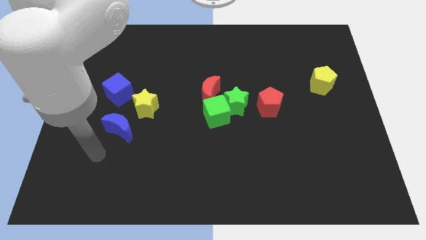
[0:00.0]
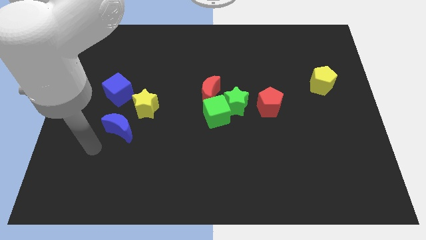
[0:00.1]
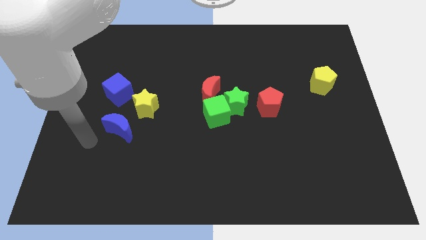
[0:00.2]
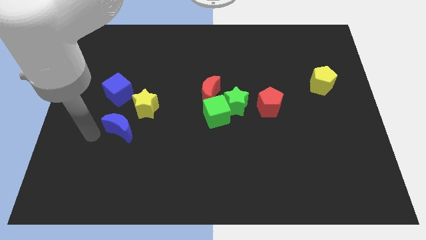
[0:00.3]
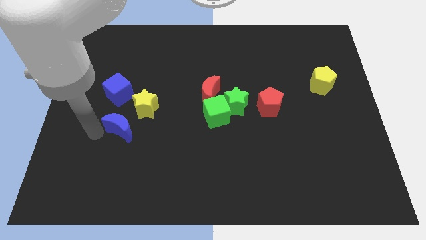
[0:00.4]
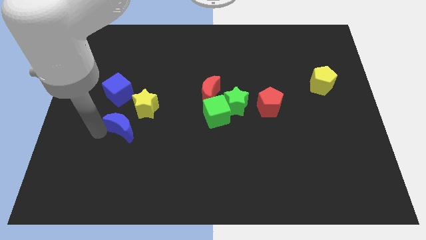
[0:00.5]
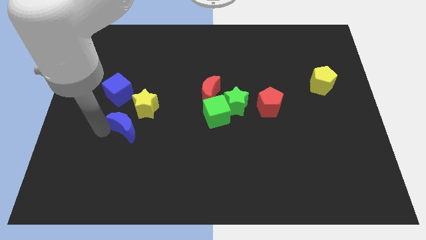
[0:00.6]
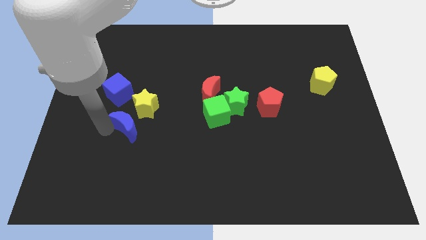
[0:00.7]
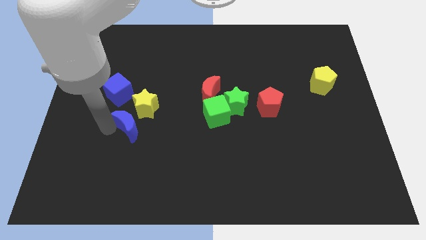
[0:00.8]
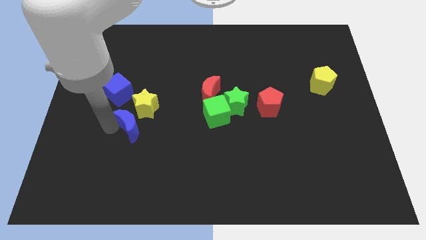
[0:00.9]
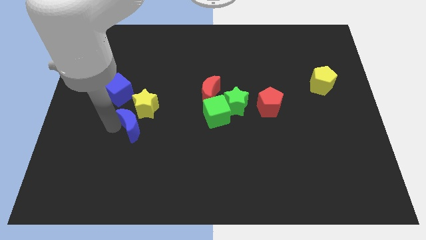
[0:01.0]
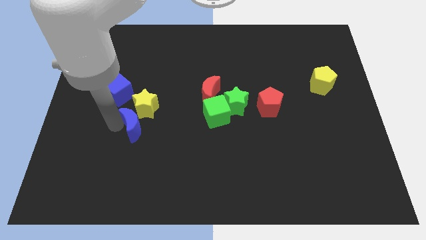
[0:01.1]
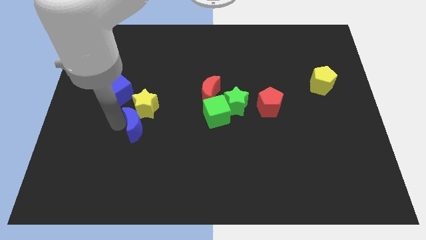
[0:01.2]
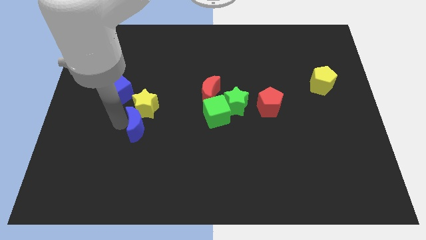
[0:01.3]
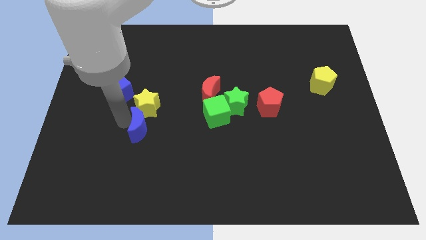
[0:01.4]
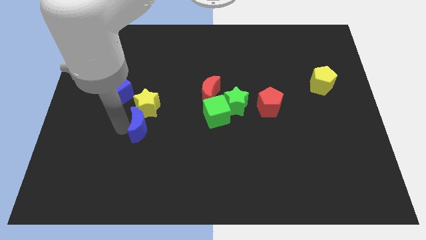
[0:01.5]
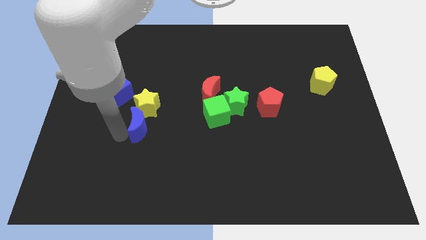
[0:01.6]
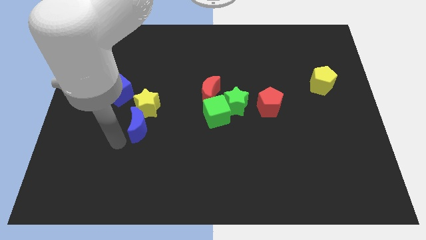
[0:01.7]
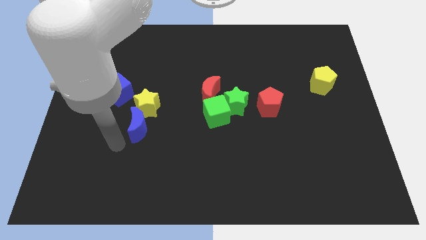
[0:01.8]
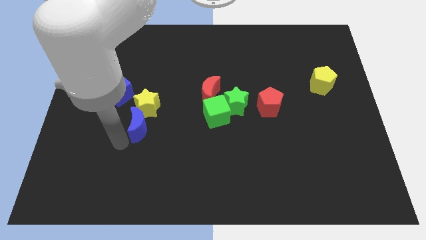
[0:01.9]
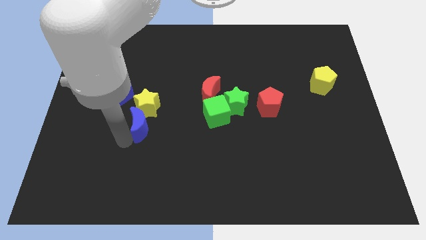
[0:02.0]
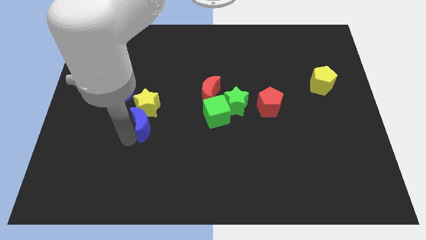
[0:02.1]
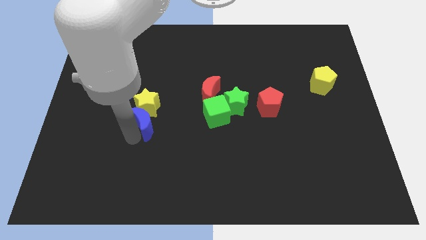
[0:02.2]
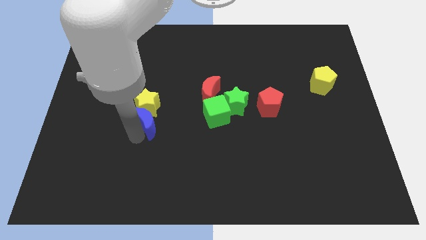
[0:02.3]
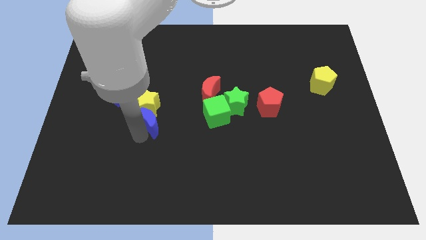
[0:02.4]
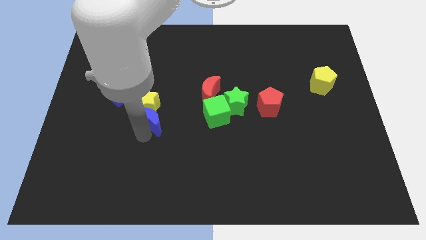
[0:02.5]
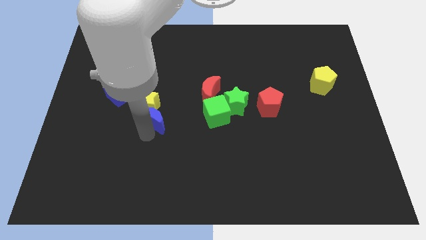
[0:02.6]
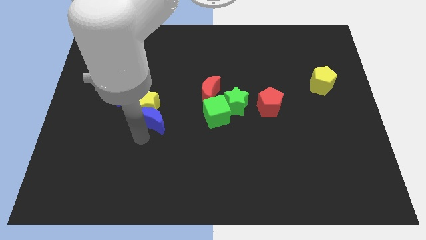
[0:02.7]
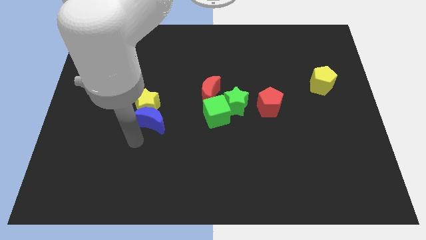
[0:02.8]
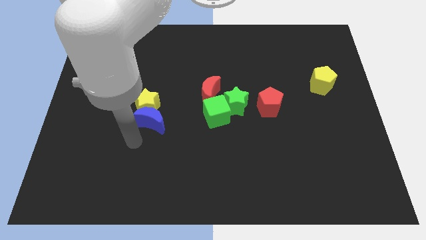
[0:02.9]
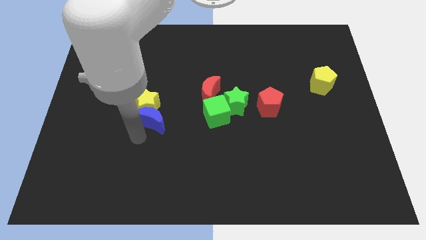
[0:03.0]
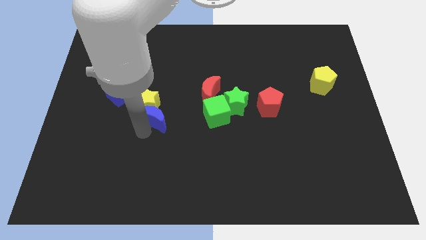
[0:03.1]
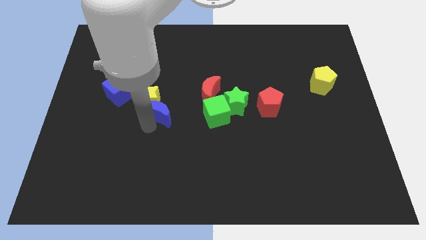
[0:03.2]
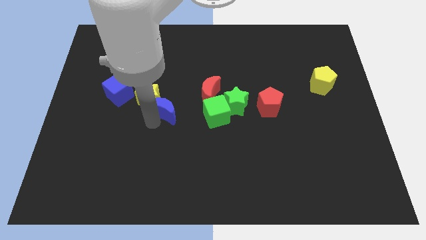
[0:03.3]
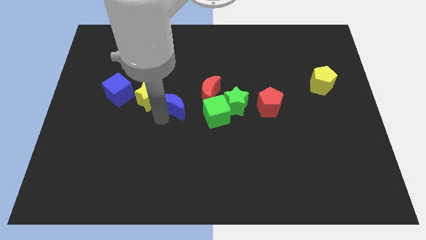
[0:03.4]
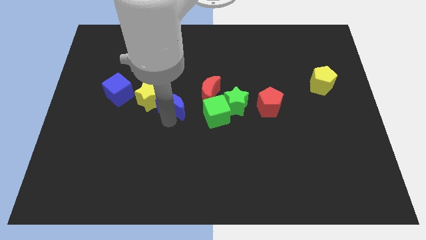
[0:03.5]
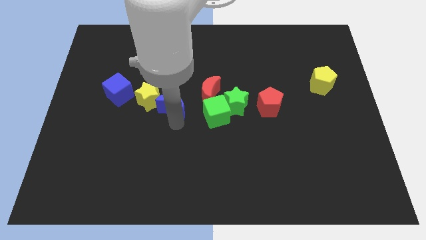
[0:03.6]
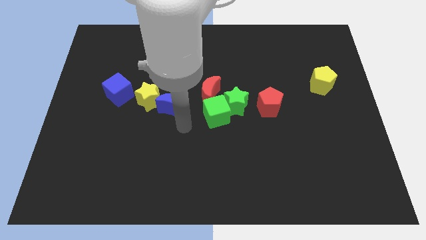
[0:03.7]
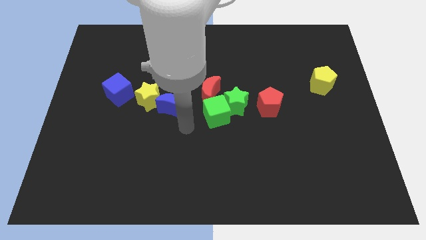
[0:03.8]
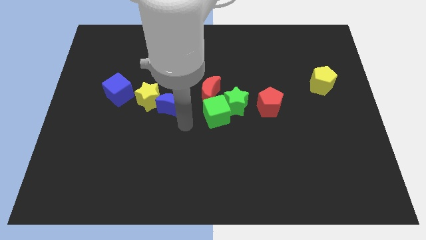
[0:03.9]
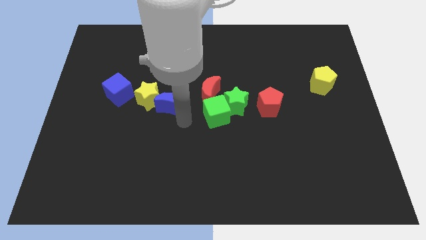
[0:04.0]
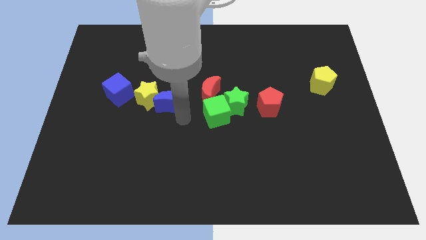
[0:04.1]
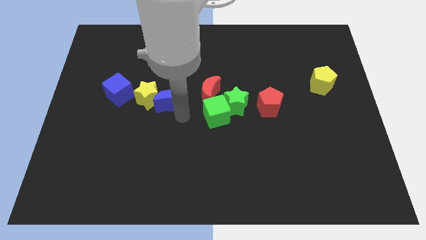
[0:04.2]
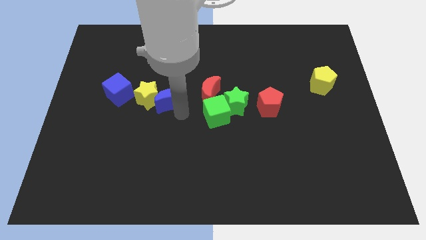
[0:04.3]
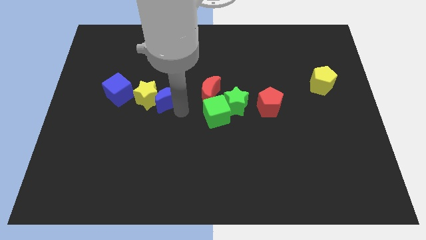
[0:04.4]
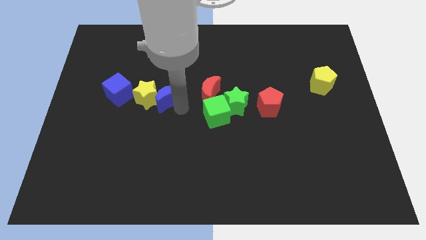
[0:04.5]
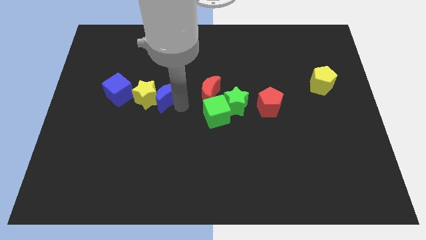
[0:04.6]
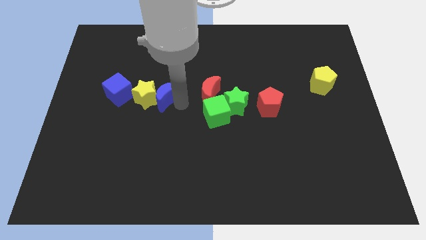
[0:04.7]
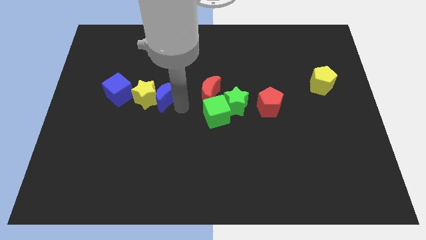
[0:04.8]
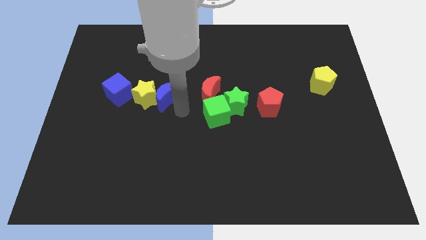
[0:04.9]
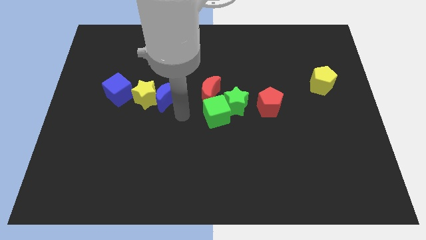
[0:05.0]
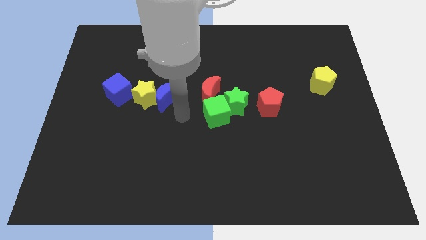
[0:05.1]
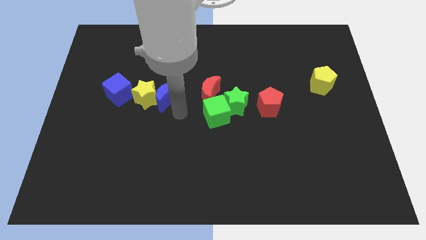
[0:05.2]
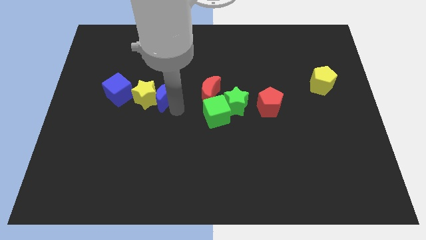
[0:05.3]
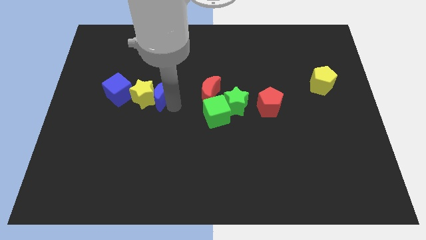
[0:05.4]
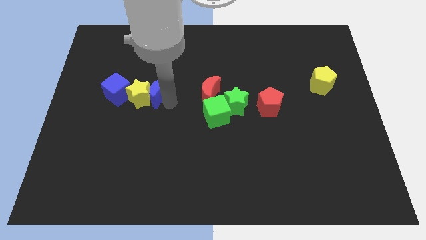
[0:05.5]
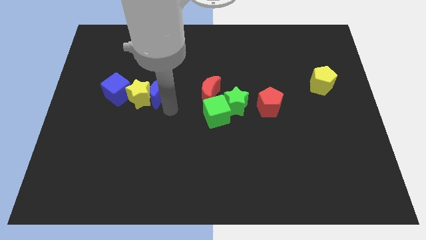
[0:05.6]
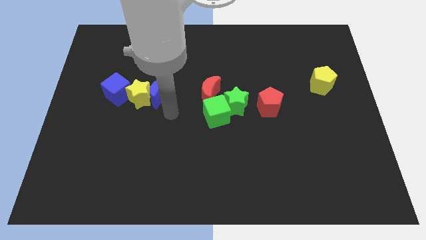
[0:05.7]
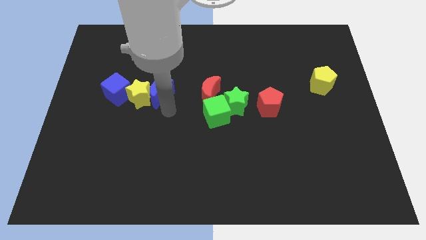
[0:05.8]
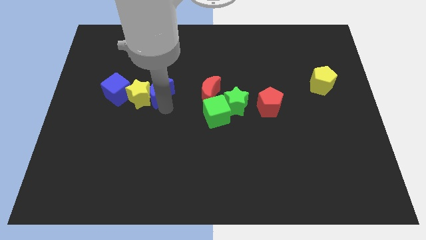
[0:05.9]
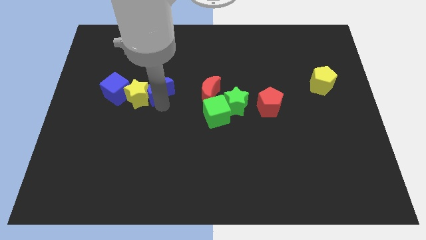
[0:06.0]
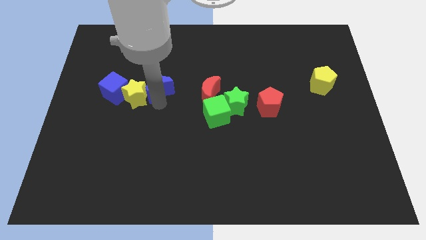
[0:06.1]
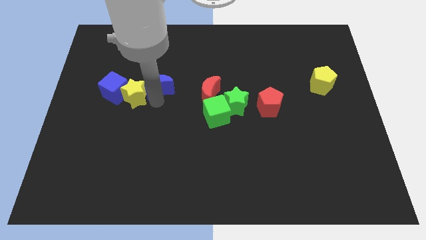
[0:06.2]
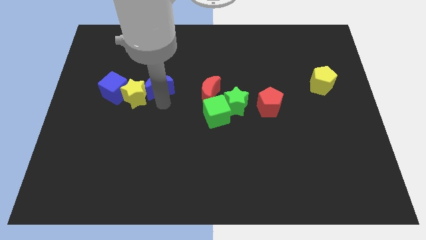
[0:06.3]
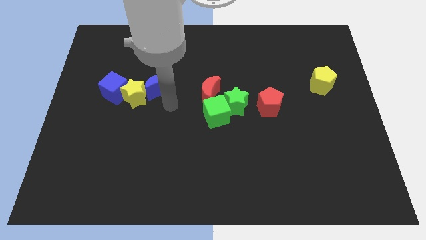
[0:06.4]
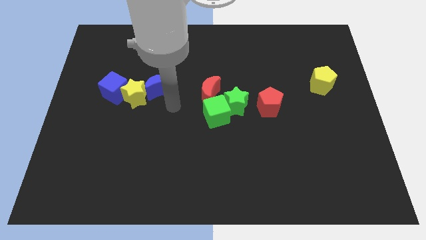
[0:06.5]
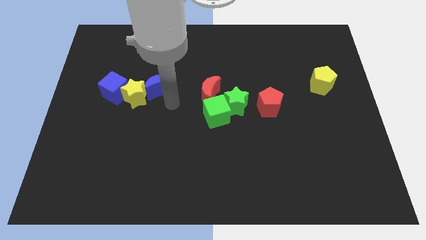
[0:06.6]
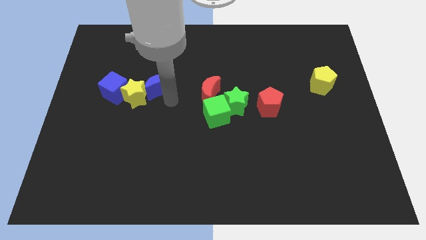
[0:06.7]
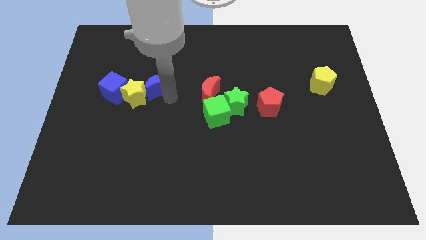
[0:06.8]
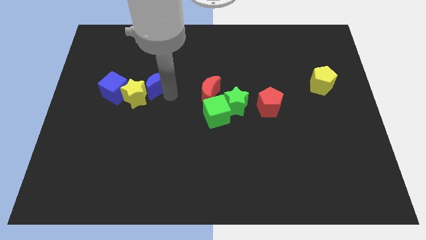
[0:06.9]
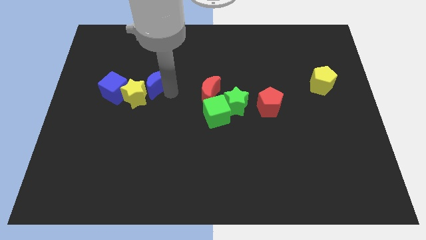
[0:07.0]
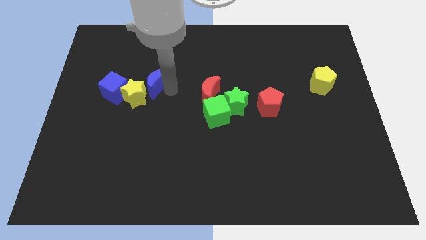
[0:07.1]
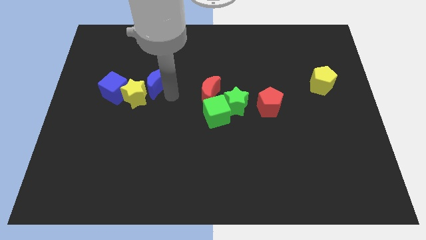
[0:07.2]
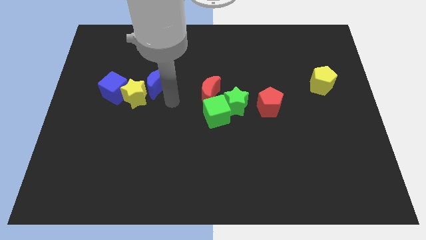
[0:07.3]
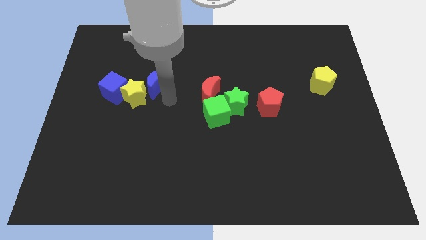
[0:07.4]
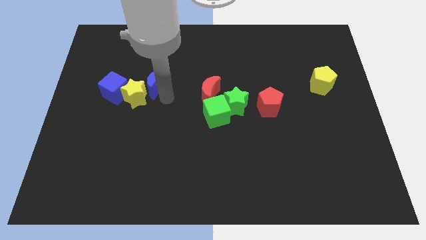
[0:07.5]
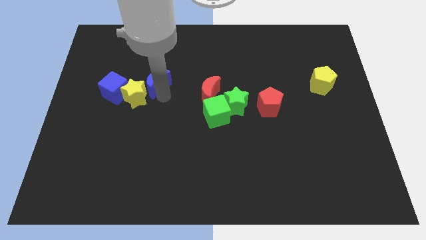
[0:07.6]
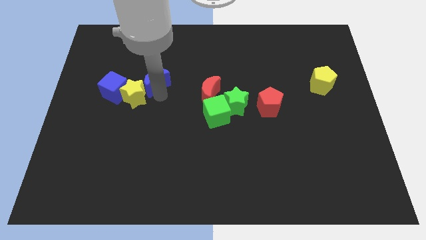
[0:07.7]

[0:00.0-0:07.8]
move the blue moon above the yellow star
